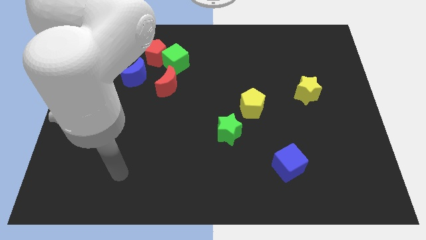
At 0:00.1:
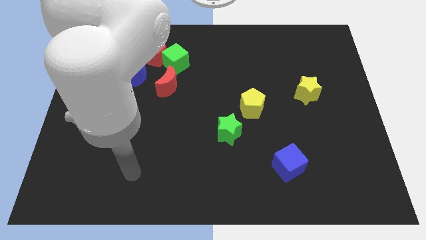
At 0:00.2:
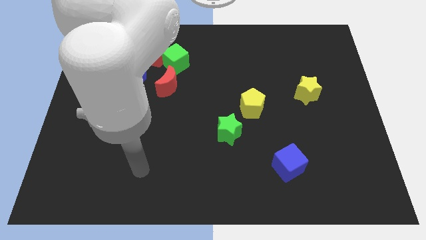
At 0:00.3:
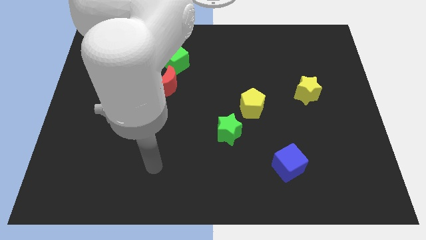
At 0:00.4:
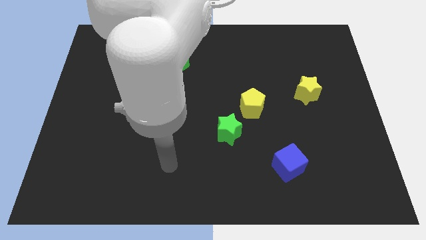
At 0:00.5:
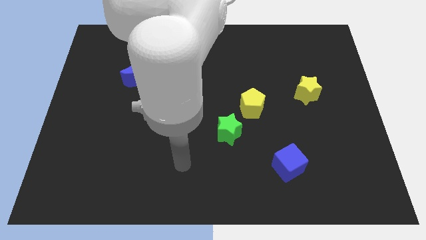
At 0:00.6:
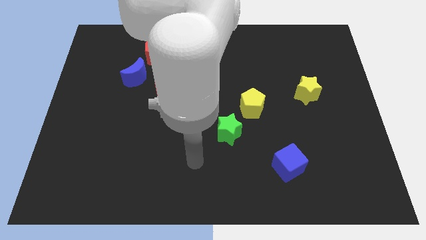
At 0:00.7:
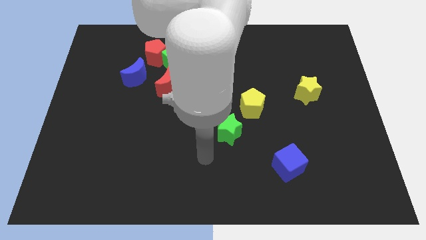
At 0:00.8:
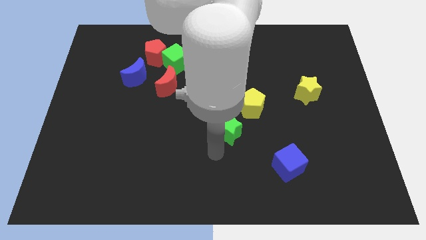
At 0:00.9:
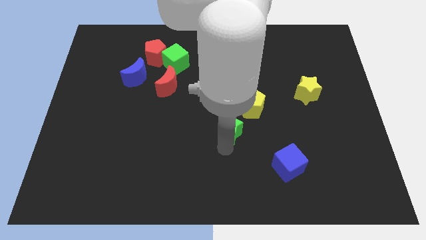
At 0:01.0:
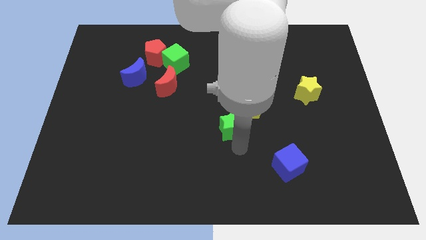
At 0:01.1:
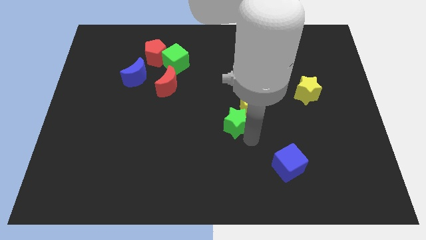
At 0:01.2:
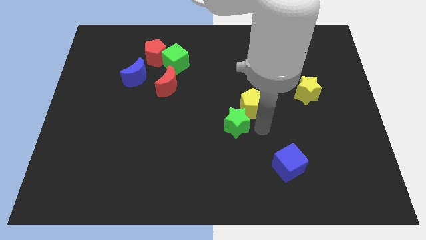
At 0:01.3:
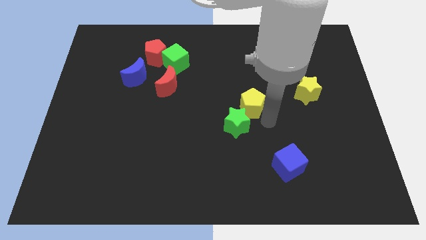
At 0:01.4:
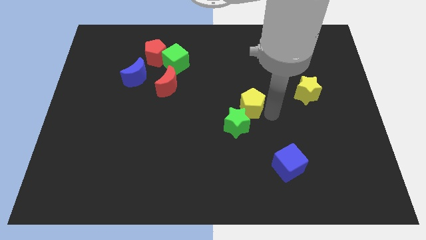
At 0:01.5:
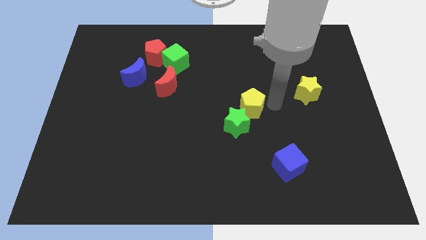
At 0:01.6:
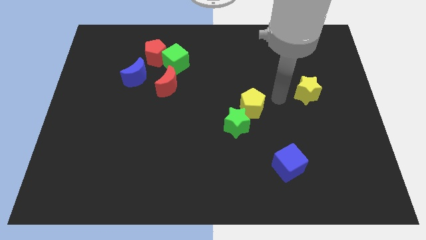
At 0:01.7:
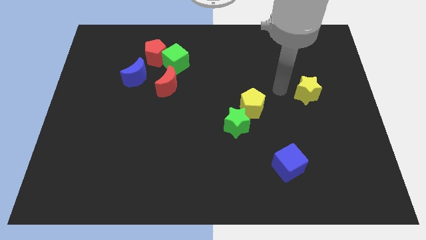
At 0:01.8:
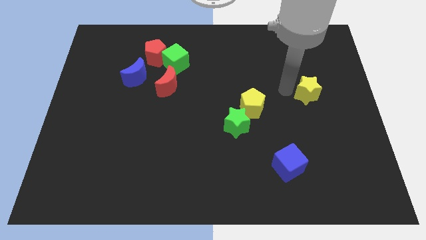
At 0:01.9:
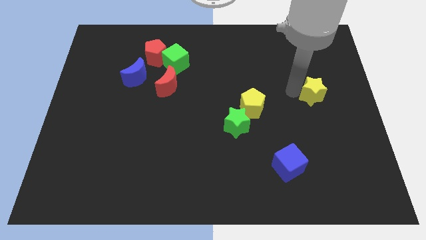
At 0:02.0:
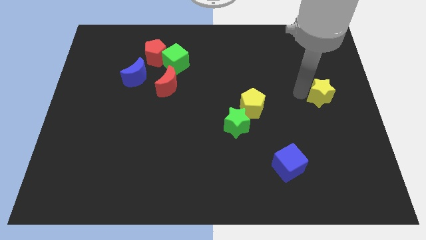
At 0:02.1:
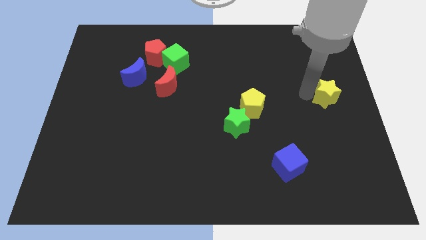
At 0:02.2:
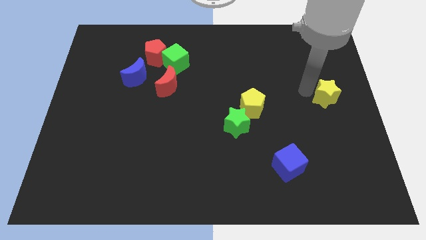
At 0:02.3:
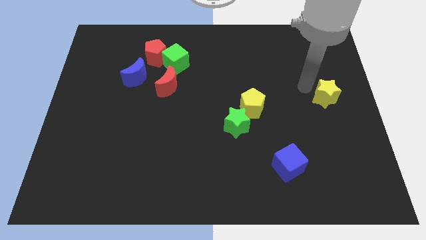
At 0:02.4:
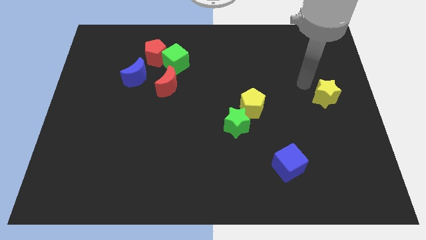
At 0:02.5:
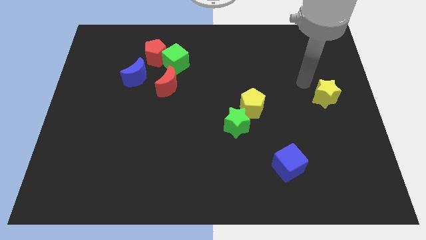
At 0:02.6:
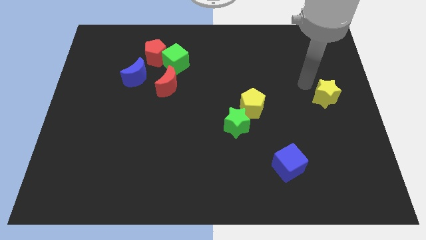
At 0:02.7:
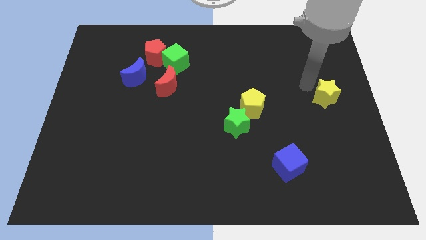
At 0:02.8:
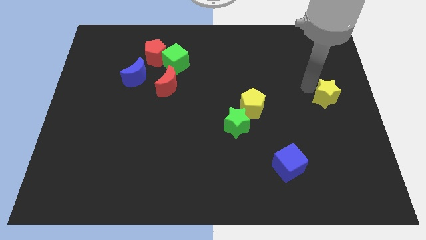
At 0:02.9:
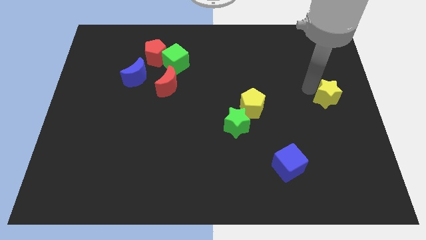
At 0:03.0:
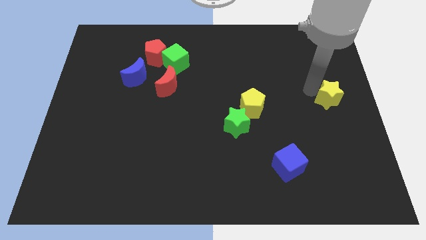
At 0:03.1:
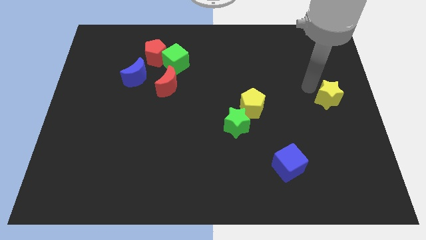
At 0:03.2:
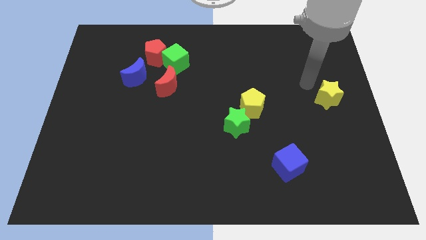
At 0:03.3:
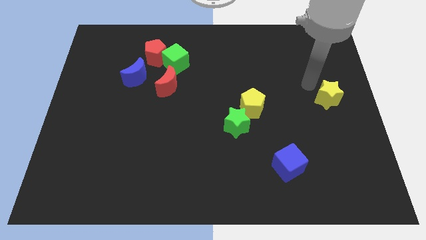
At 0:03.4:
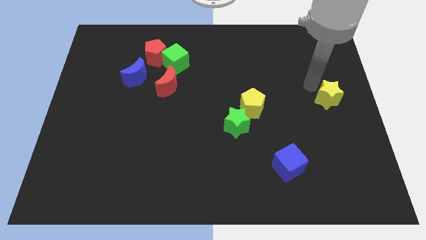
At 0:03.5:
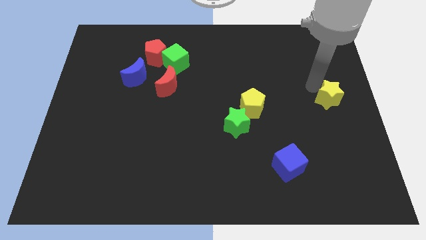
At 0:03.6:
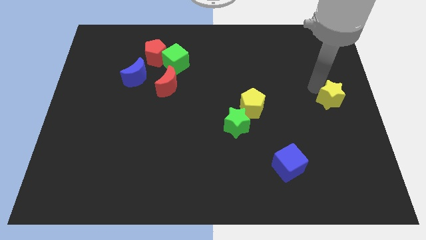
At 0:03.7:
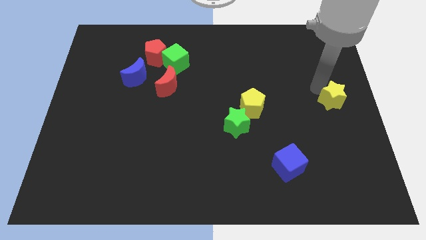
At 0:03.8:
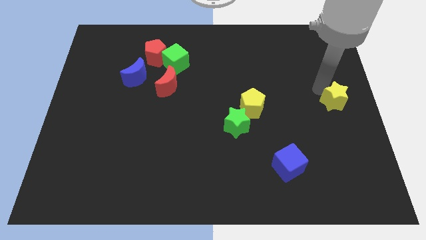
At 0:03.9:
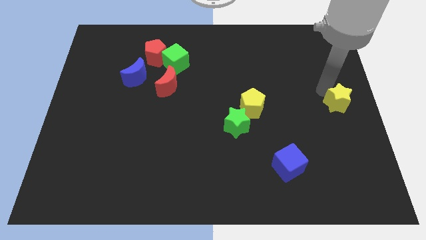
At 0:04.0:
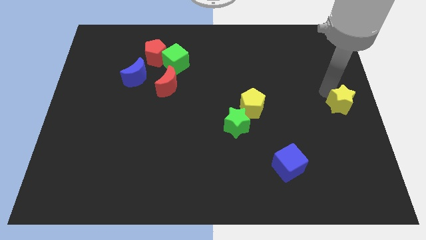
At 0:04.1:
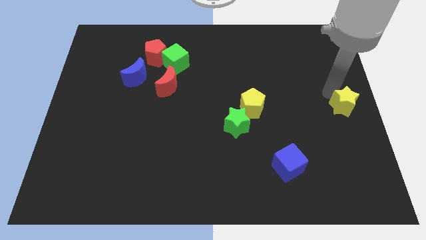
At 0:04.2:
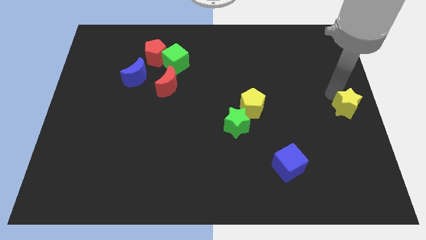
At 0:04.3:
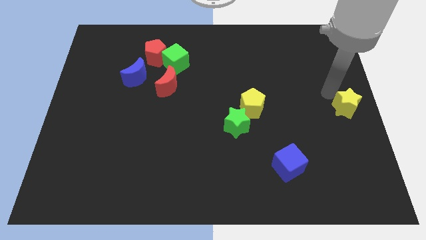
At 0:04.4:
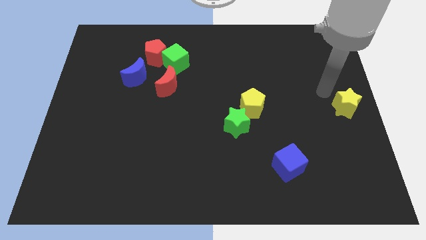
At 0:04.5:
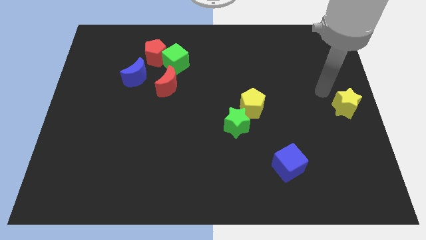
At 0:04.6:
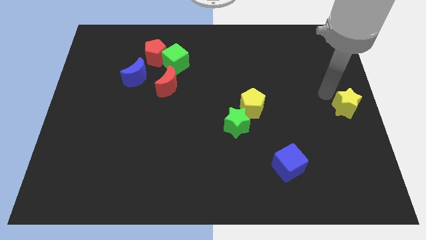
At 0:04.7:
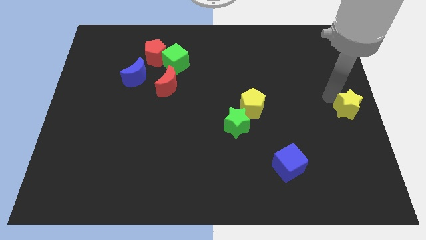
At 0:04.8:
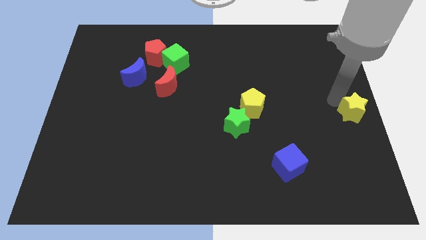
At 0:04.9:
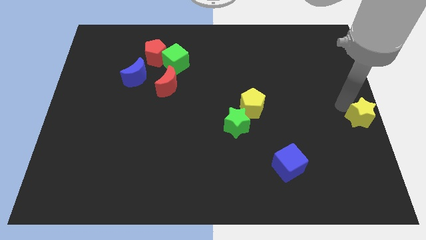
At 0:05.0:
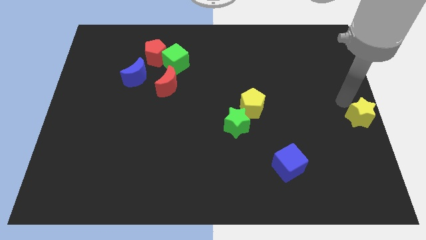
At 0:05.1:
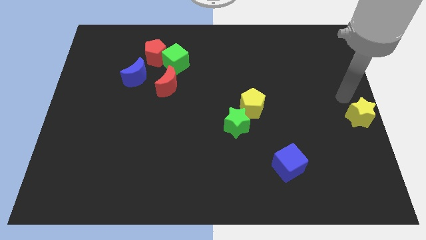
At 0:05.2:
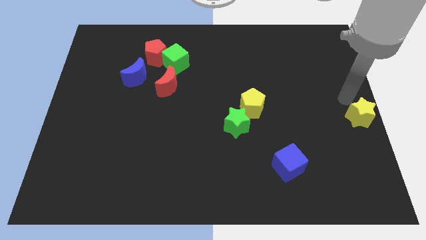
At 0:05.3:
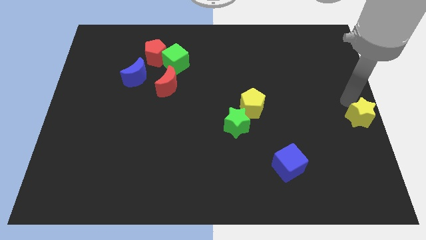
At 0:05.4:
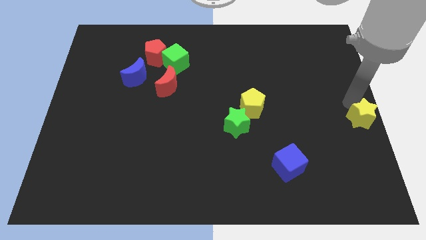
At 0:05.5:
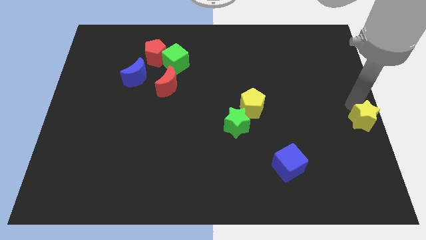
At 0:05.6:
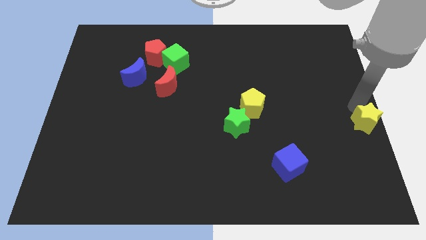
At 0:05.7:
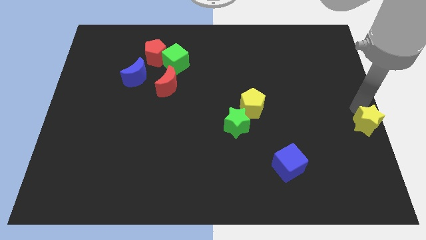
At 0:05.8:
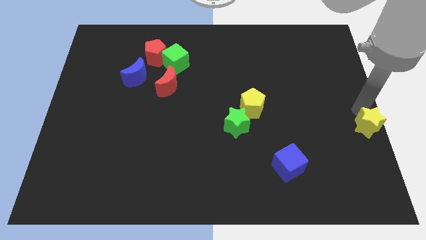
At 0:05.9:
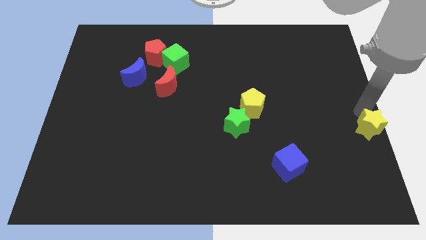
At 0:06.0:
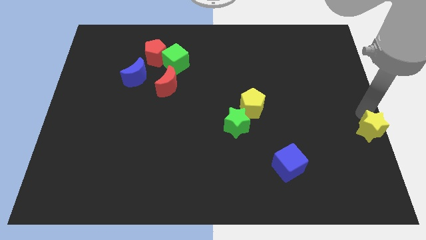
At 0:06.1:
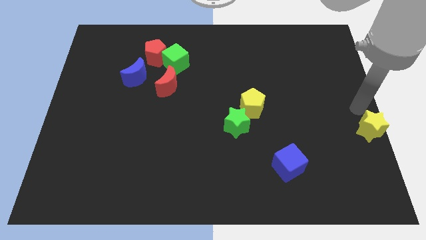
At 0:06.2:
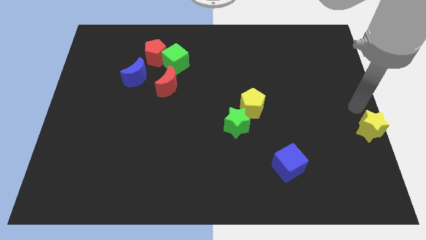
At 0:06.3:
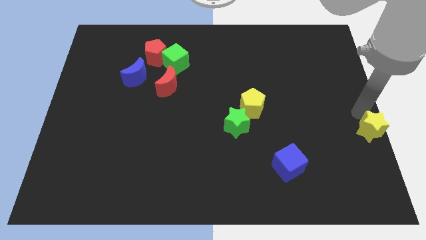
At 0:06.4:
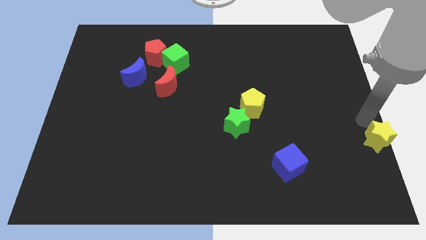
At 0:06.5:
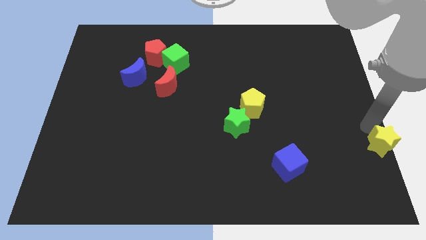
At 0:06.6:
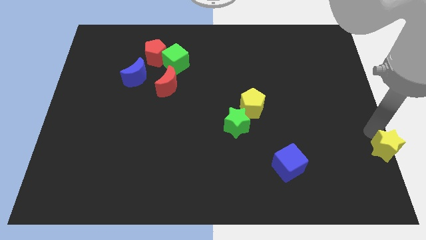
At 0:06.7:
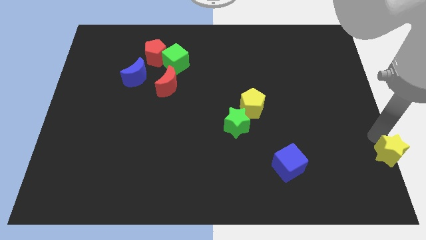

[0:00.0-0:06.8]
slide the yellow star to the bottom right of the board

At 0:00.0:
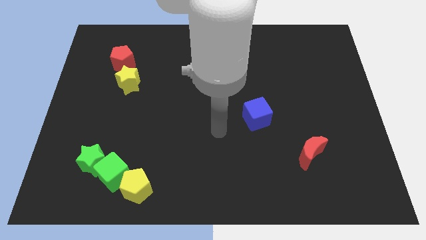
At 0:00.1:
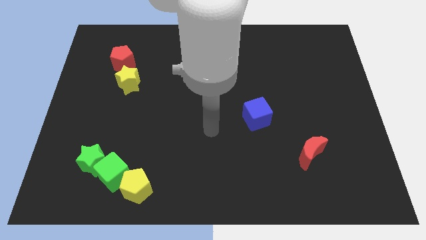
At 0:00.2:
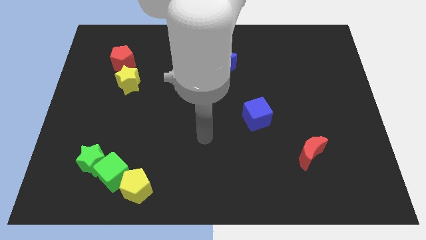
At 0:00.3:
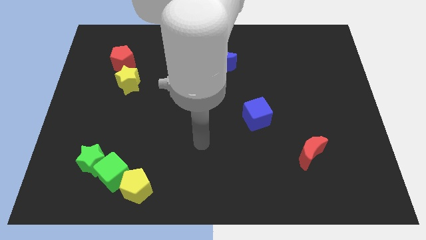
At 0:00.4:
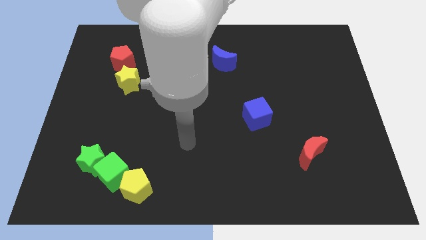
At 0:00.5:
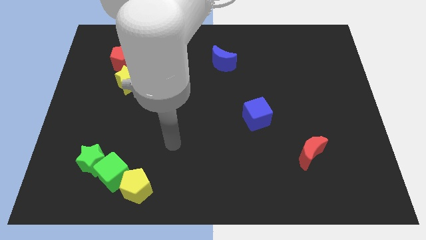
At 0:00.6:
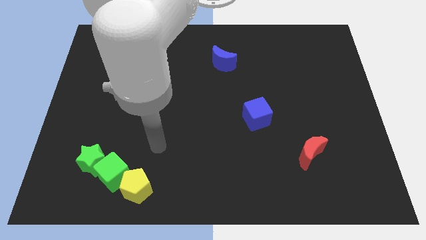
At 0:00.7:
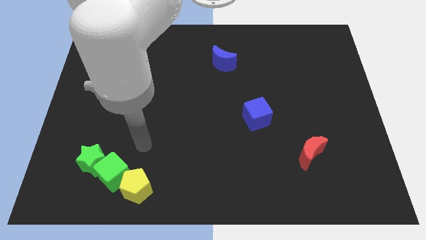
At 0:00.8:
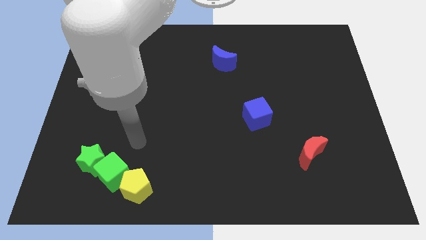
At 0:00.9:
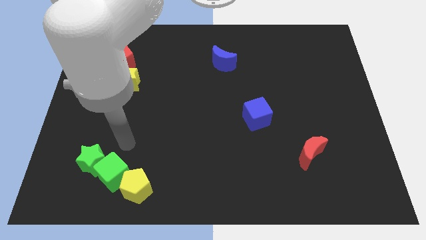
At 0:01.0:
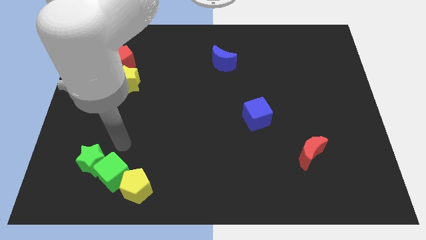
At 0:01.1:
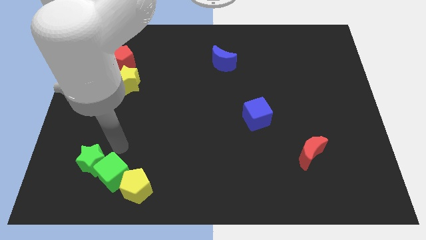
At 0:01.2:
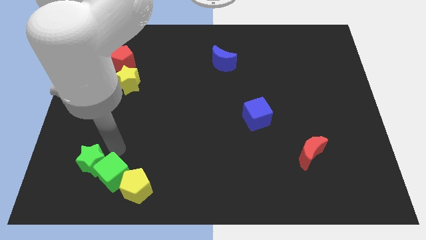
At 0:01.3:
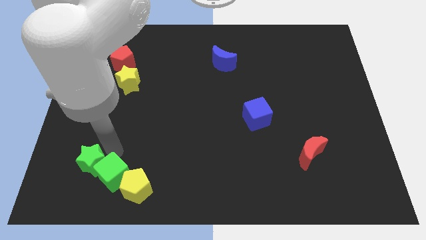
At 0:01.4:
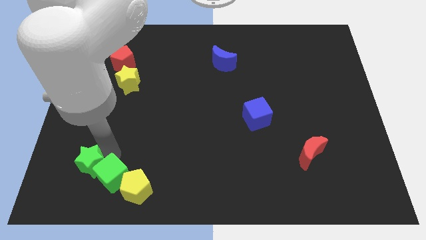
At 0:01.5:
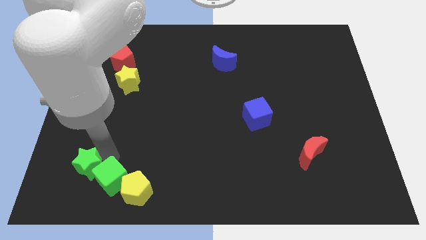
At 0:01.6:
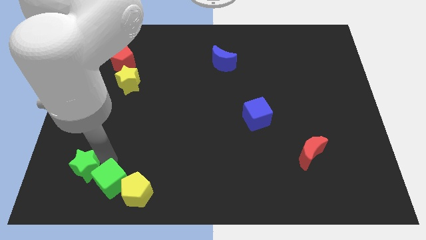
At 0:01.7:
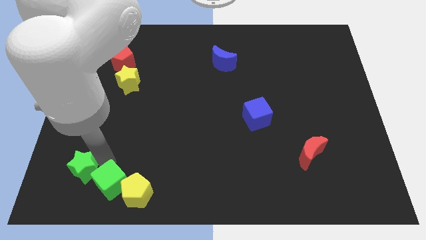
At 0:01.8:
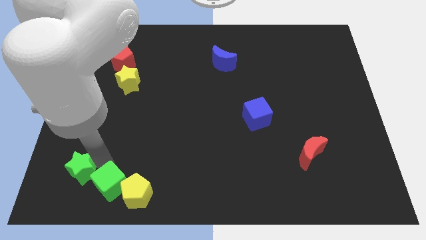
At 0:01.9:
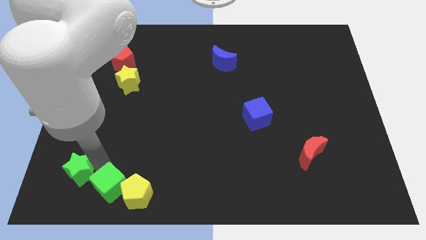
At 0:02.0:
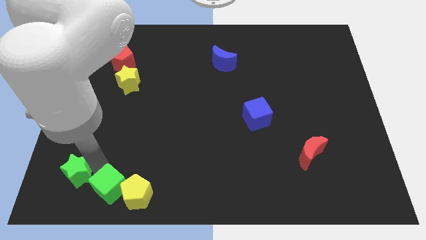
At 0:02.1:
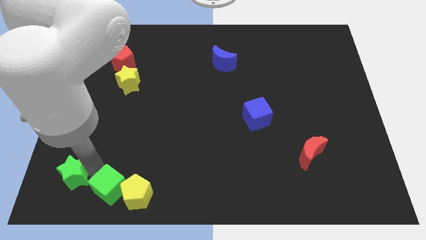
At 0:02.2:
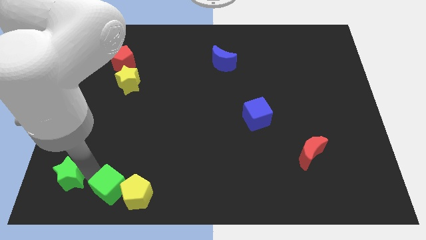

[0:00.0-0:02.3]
put the green star to the bottom left of the board
